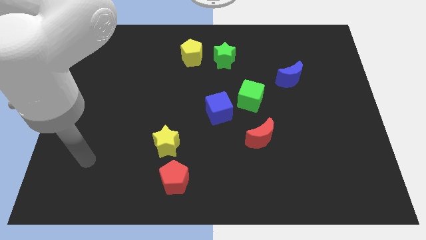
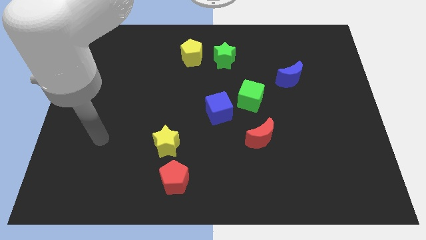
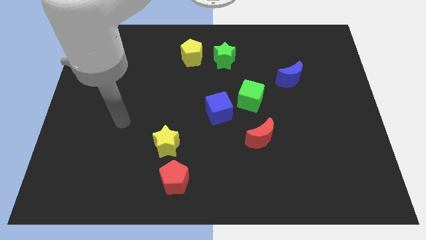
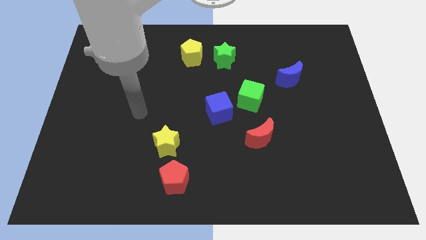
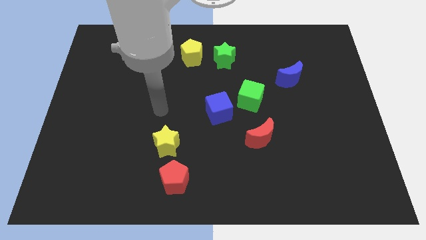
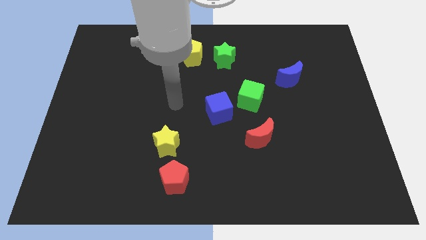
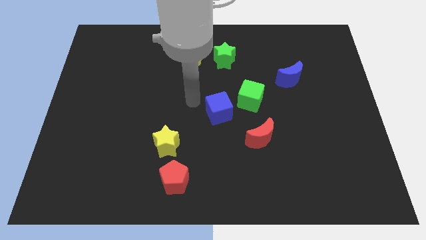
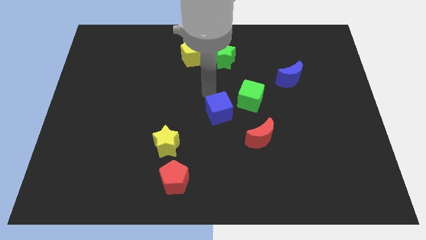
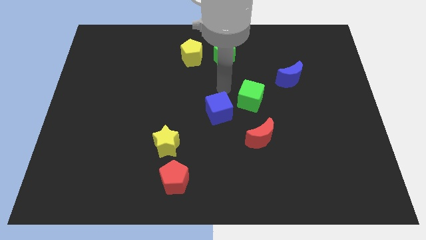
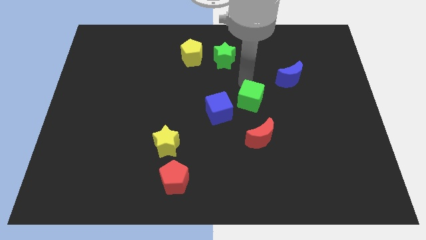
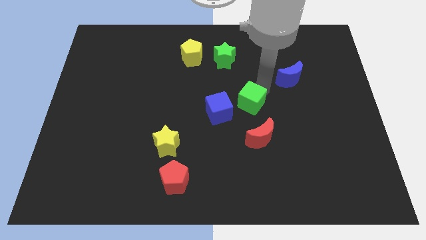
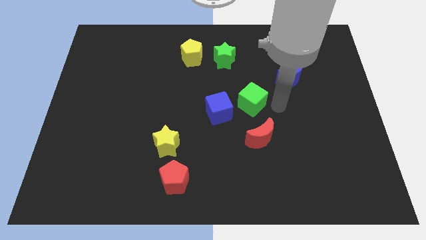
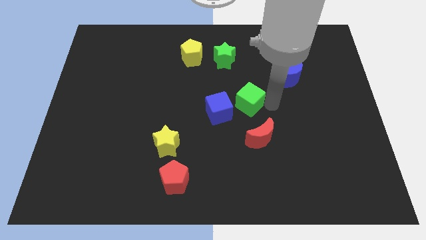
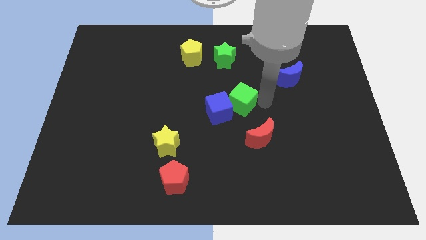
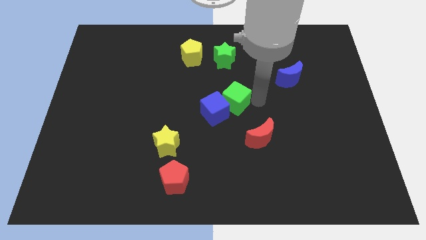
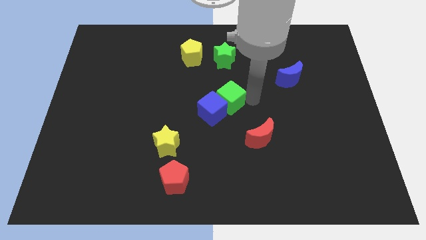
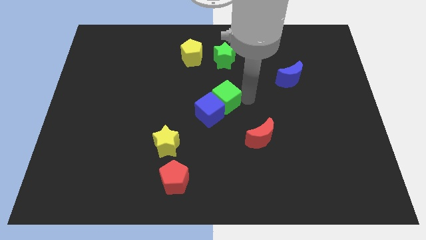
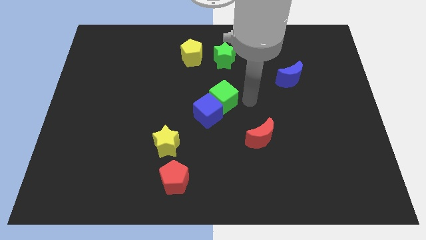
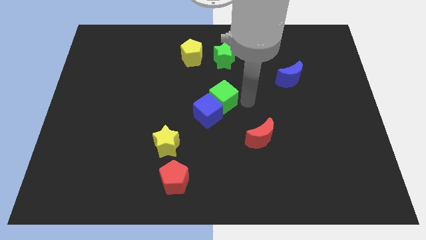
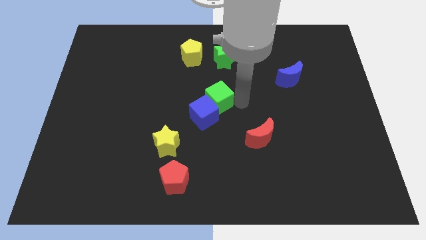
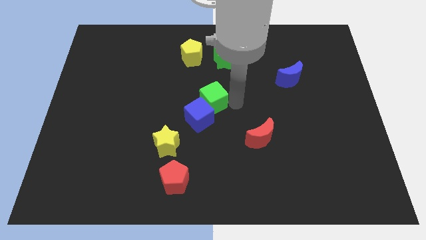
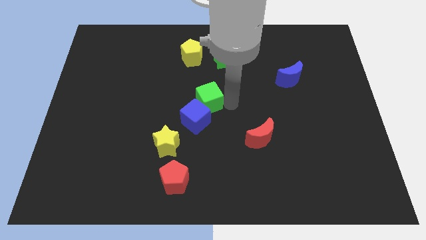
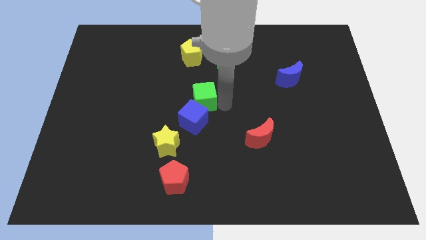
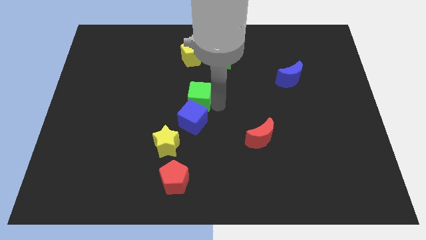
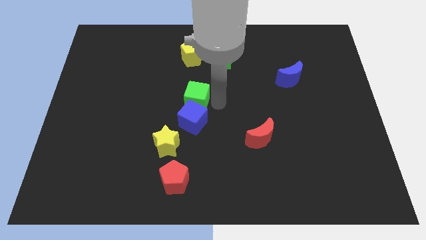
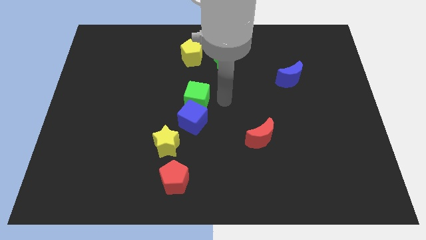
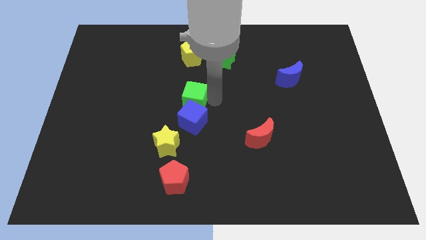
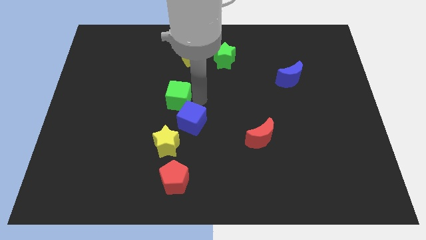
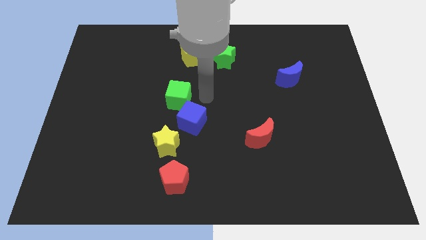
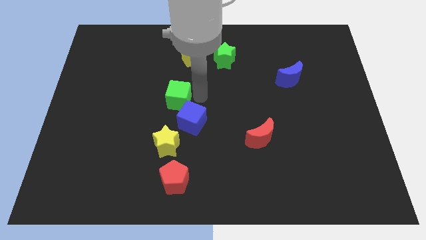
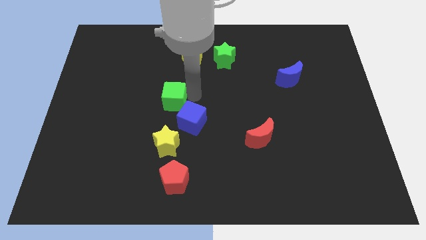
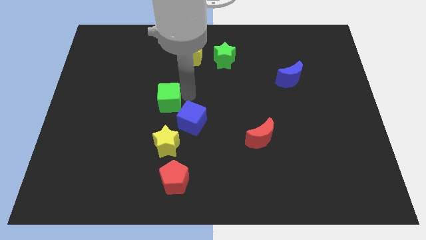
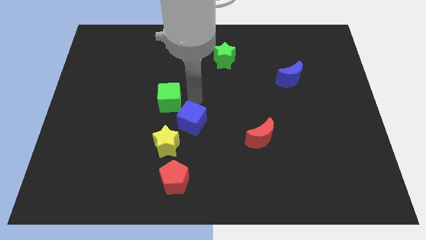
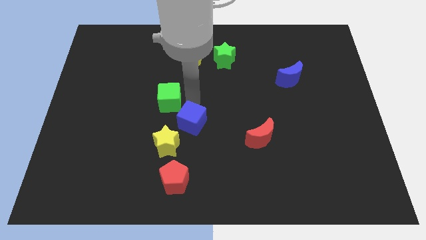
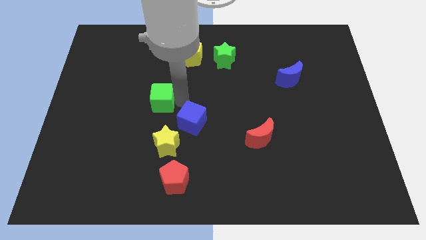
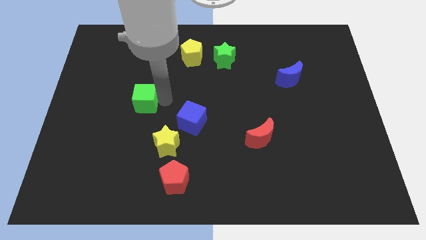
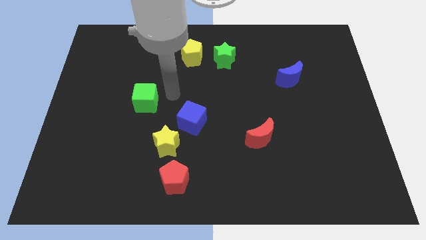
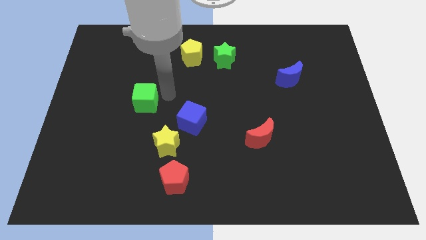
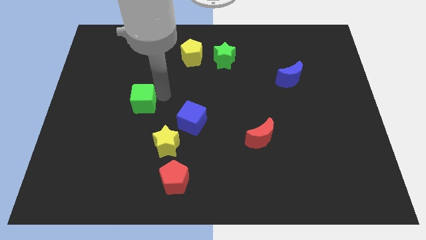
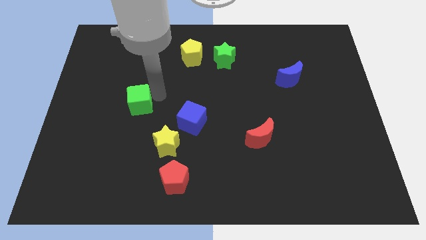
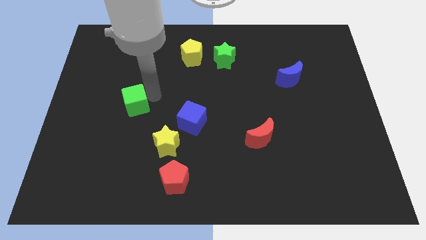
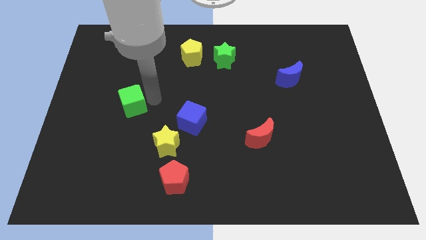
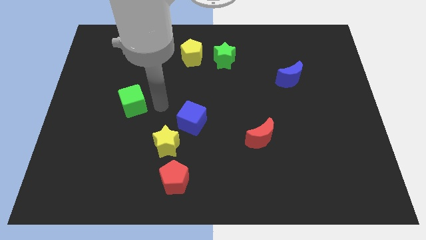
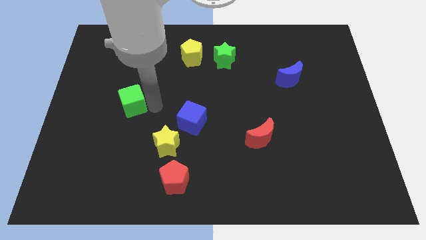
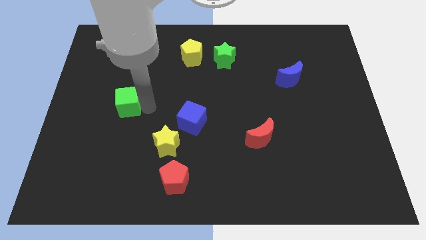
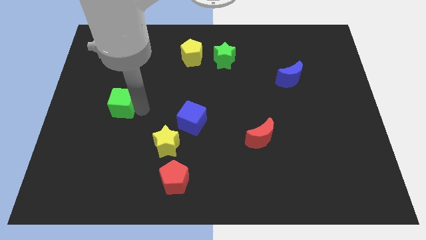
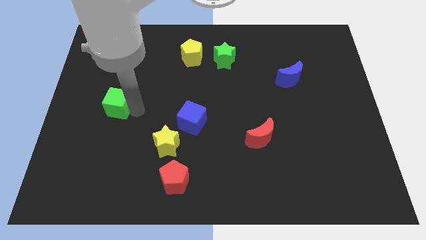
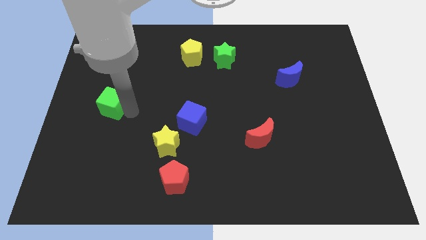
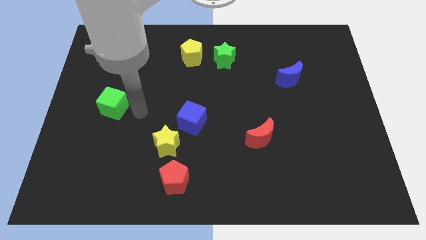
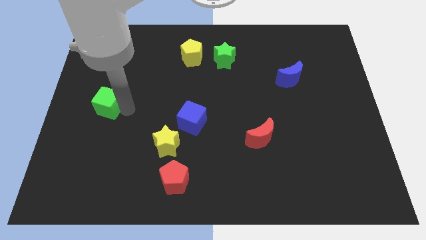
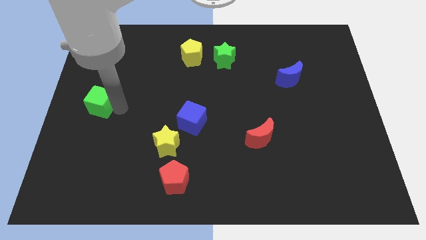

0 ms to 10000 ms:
put the green cube to the center left

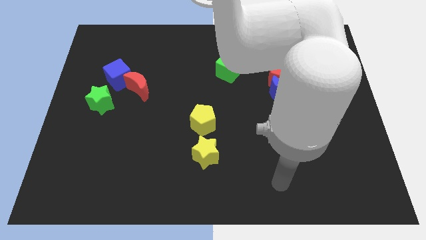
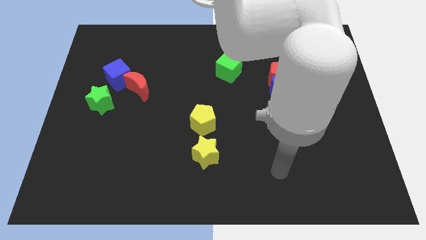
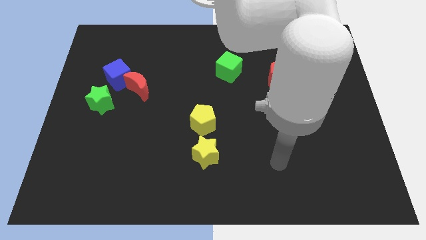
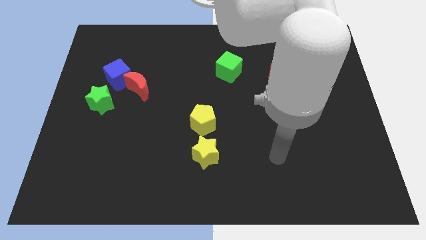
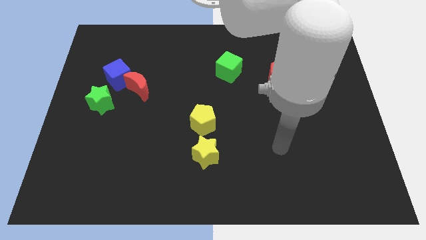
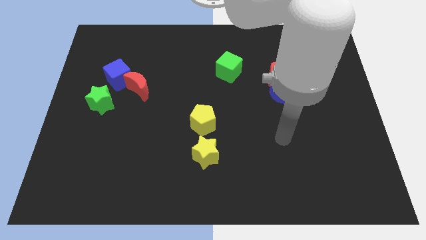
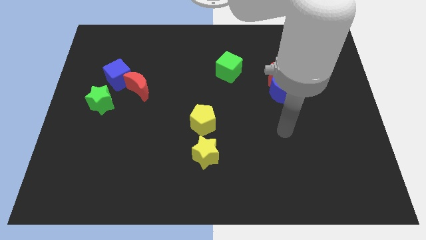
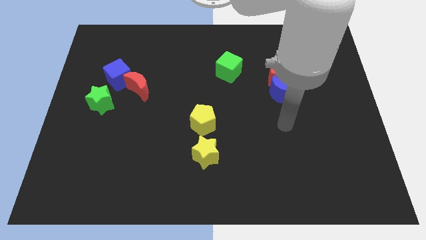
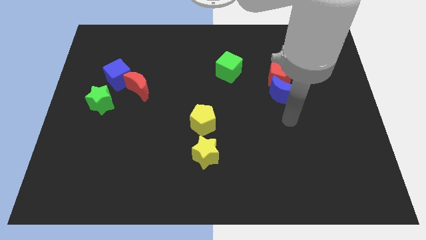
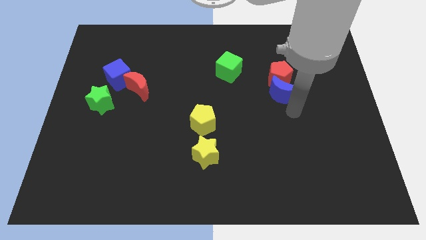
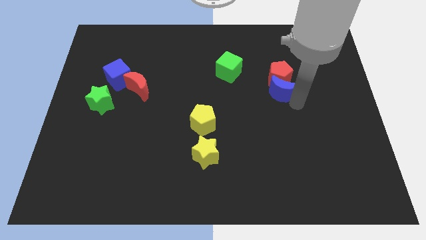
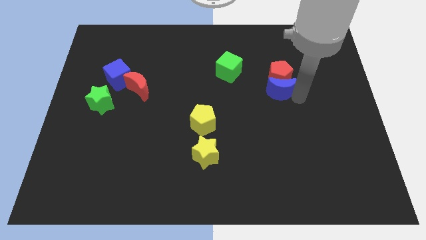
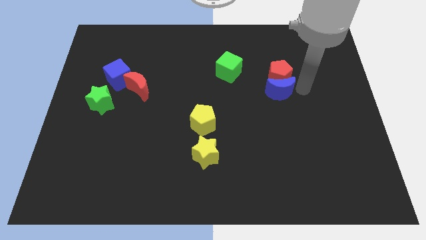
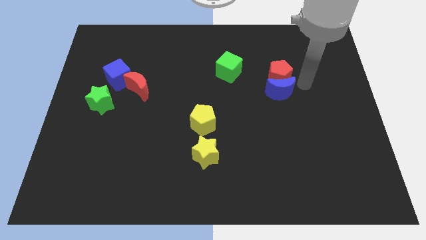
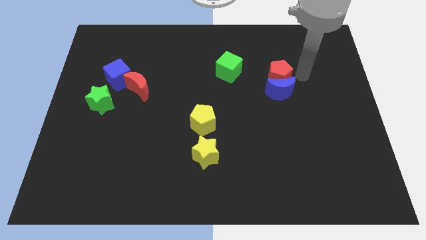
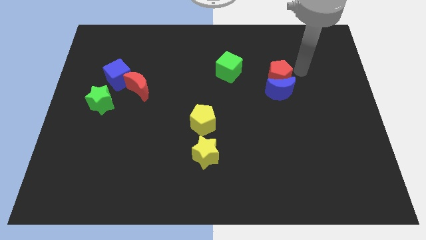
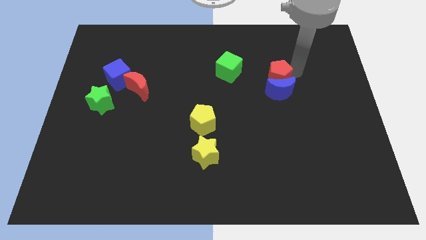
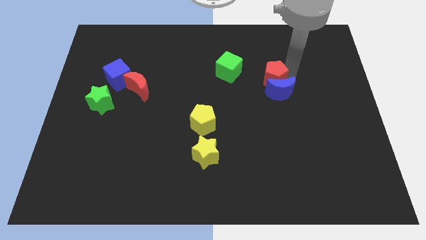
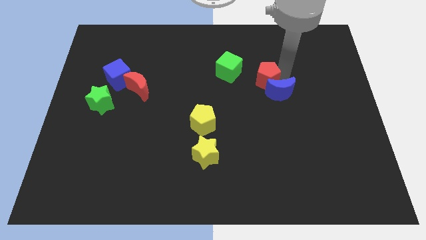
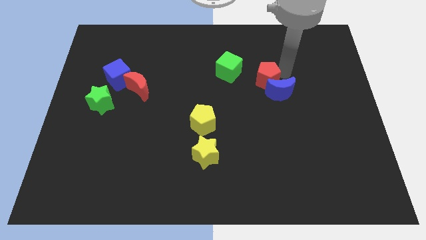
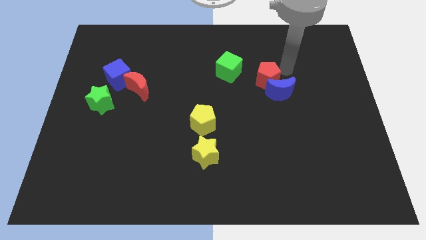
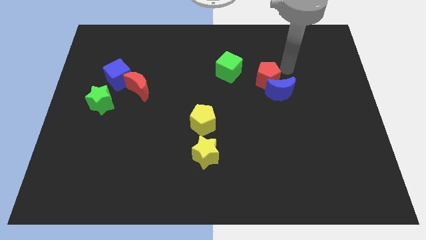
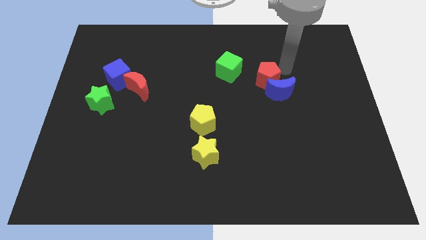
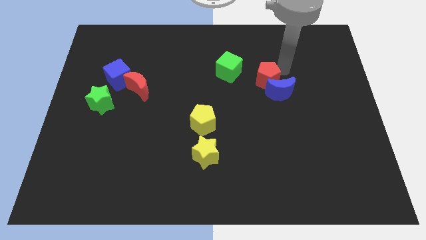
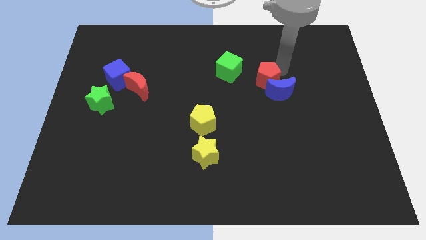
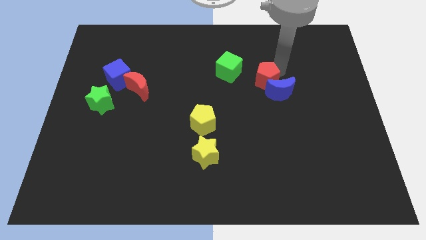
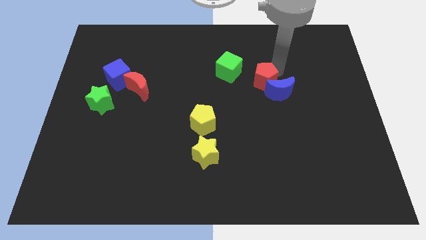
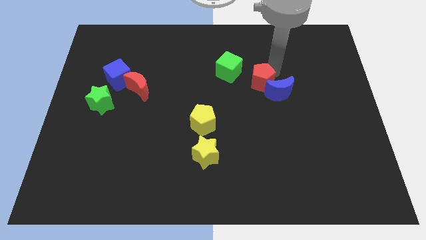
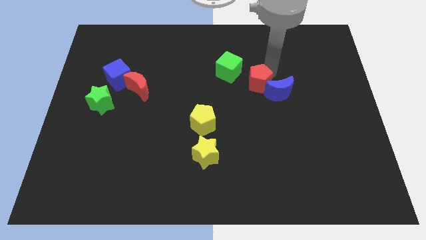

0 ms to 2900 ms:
move the red pentagon to the center of the board
